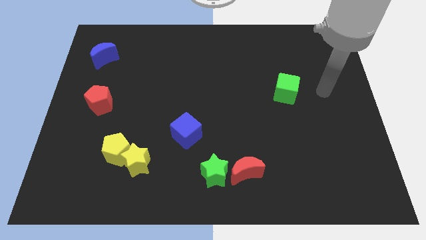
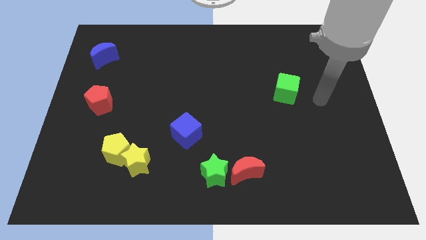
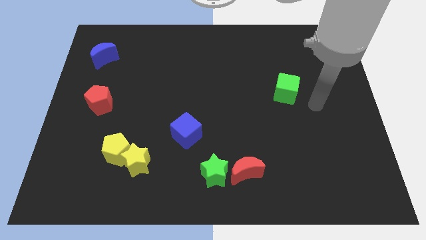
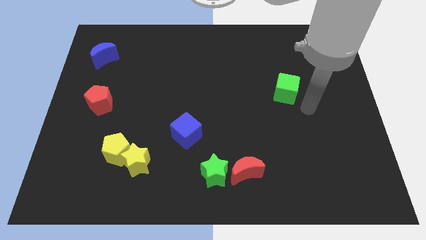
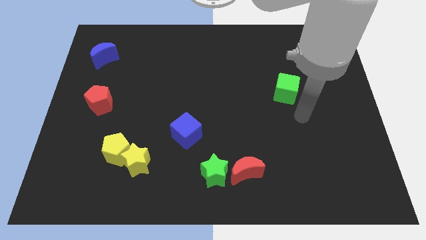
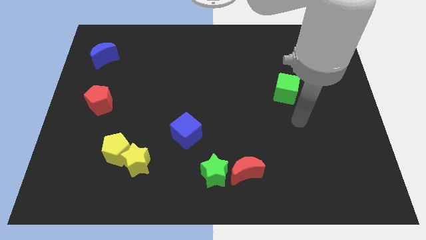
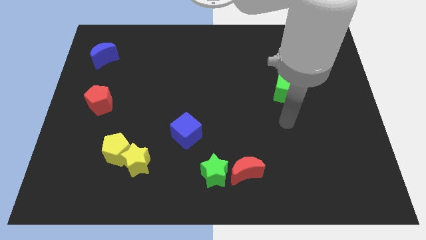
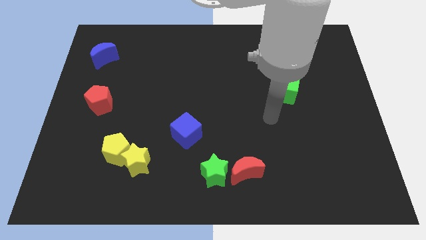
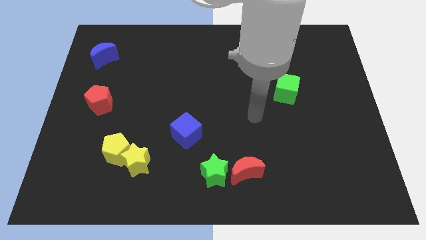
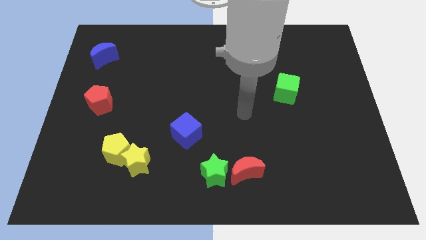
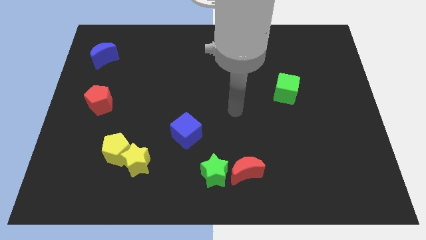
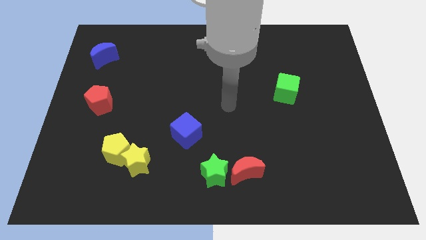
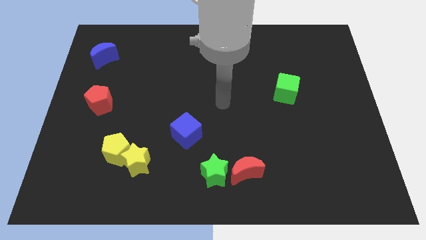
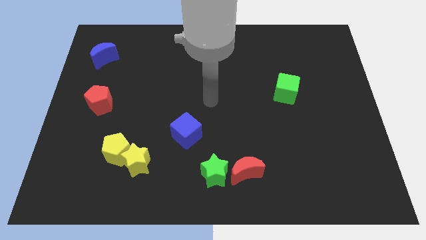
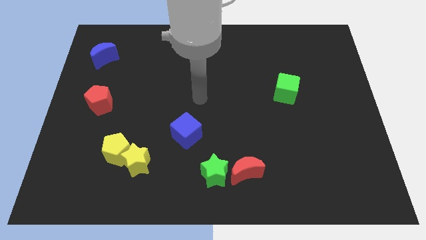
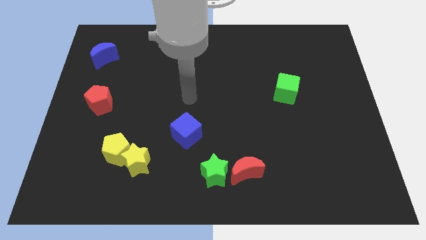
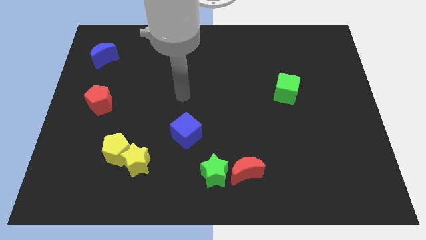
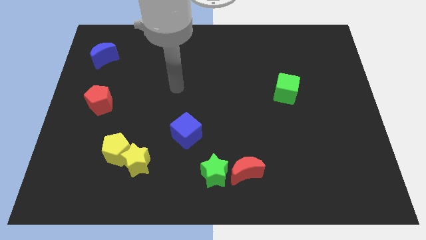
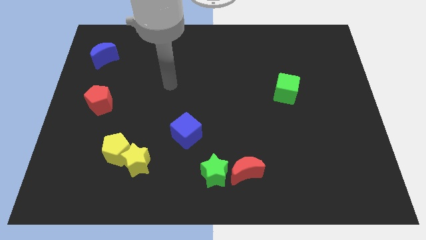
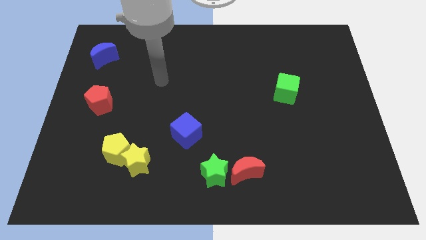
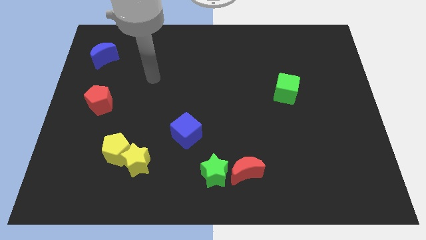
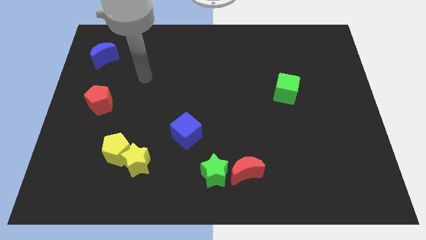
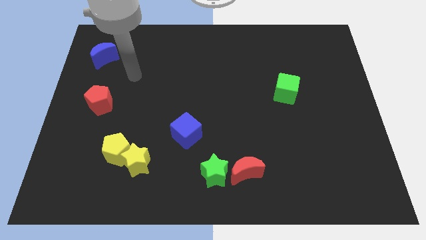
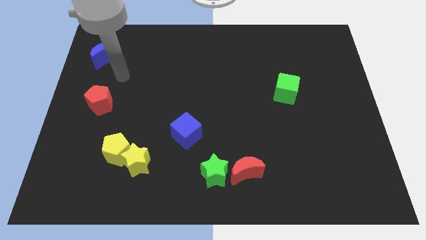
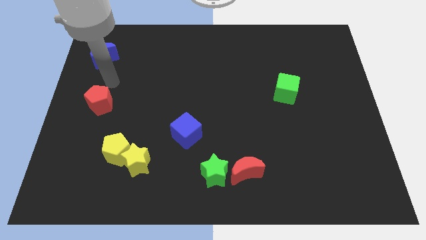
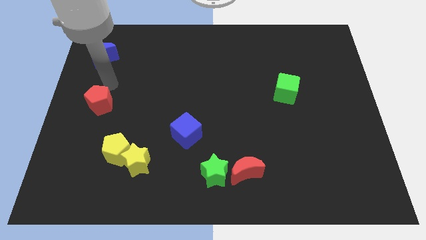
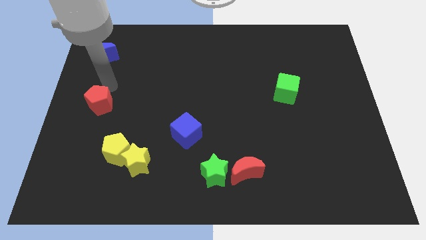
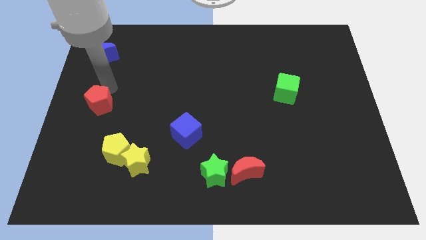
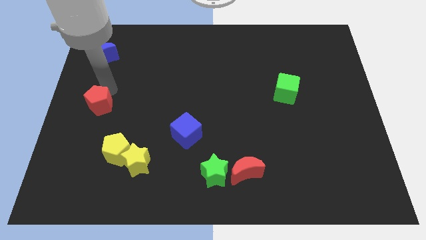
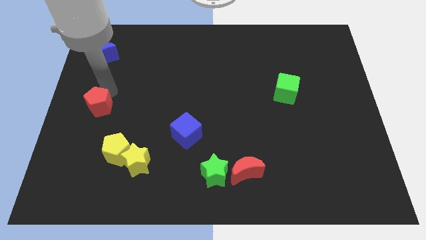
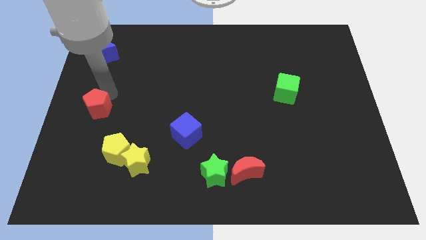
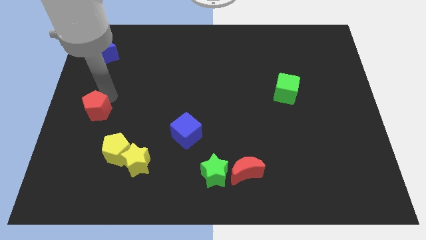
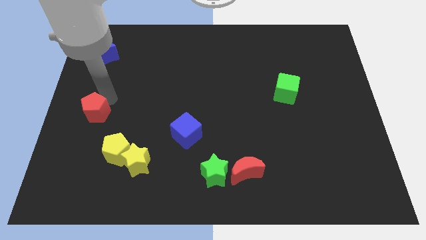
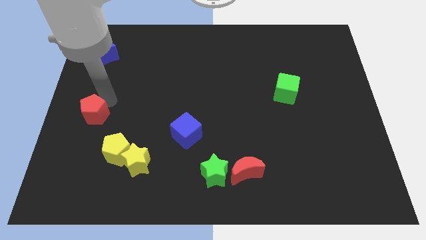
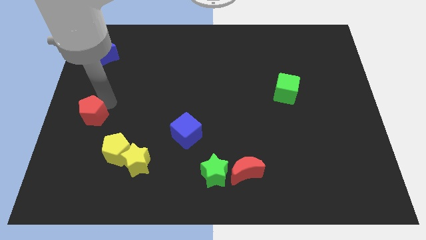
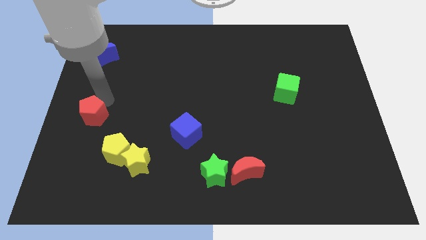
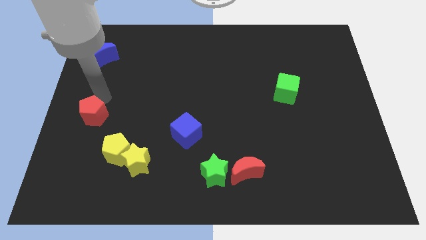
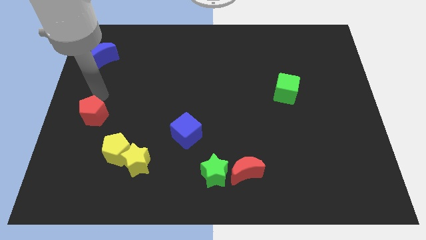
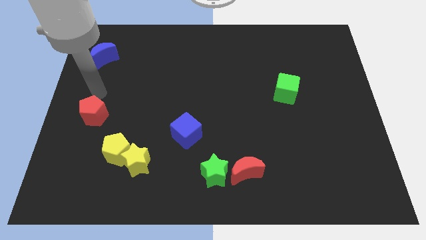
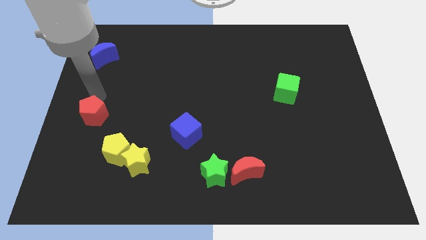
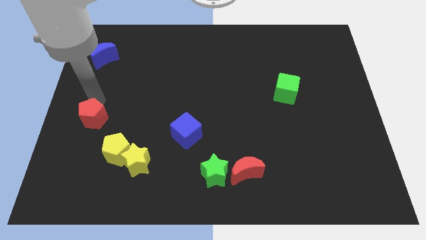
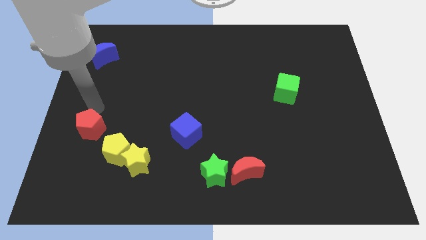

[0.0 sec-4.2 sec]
move the red pentagon down somewhat

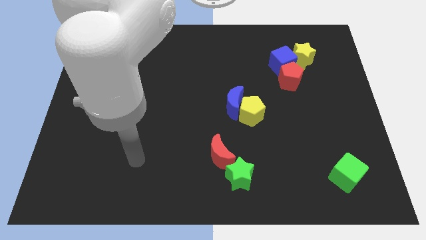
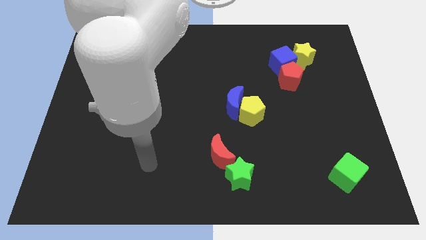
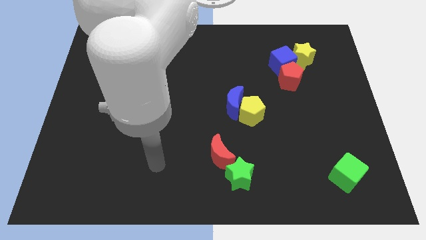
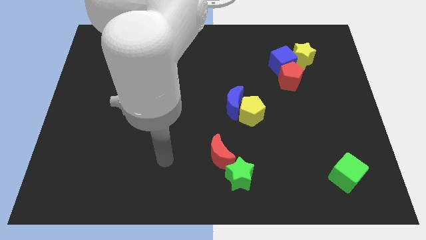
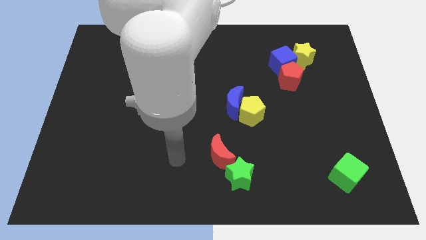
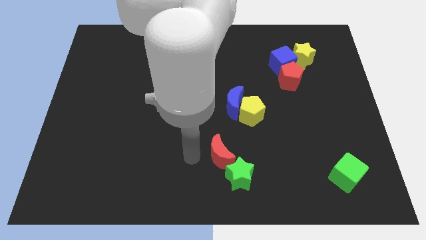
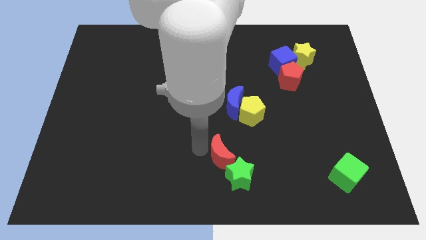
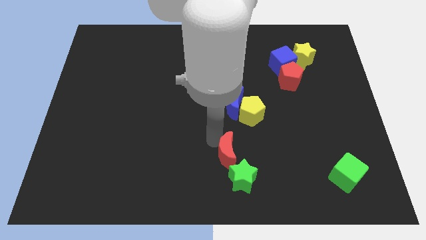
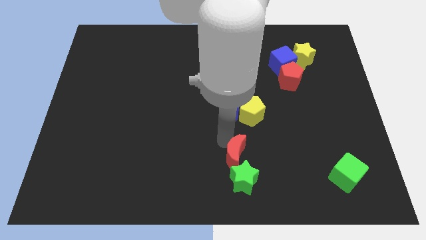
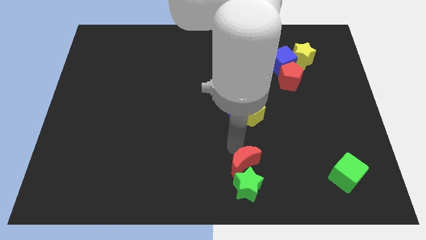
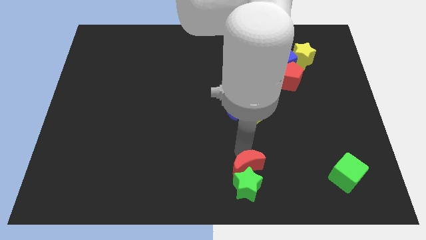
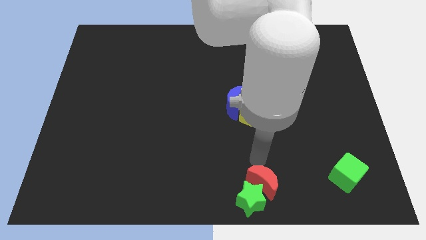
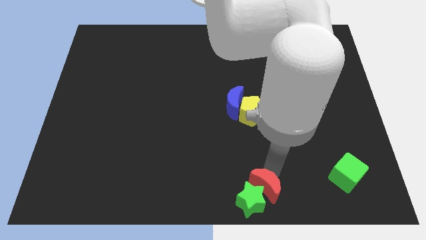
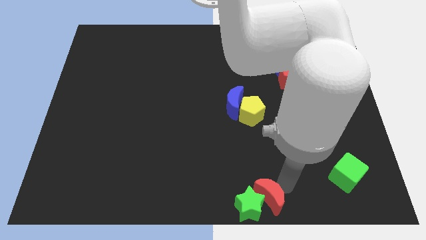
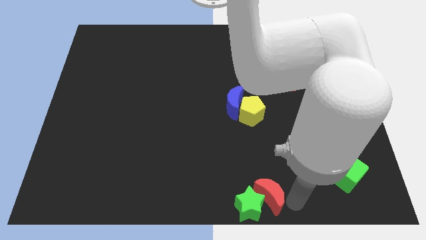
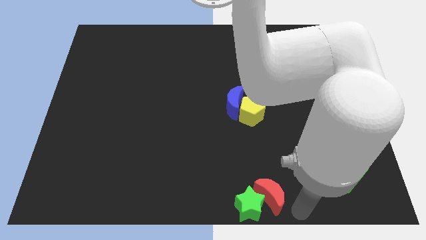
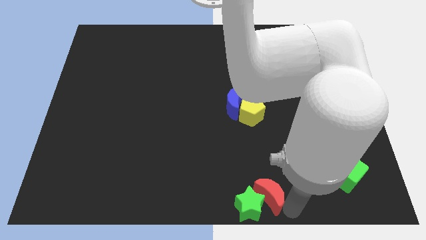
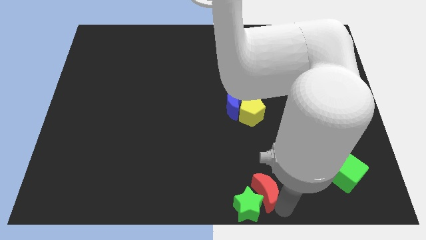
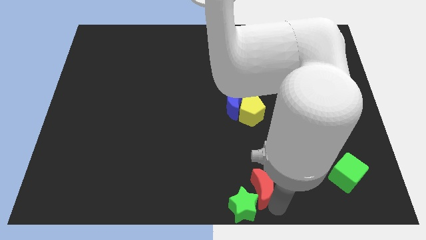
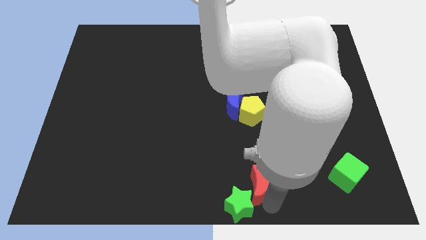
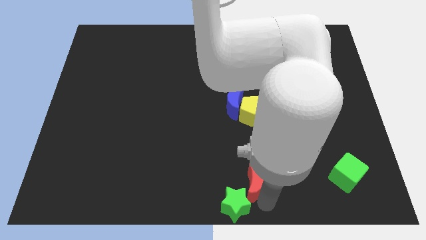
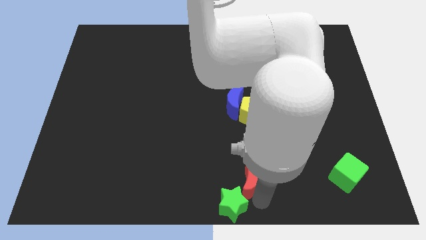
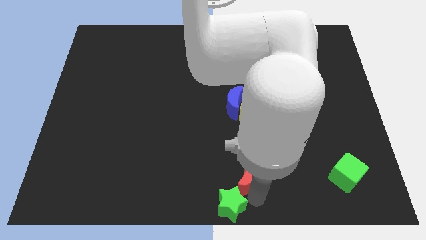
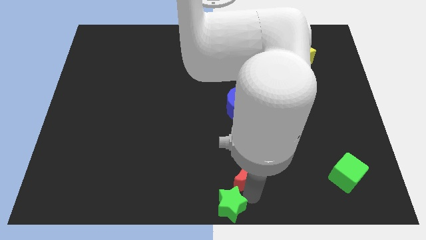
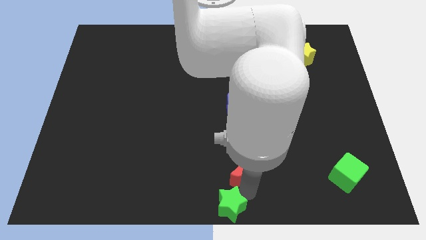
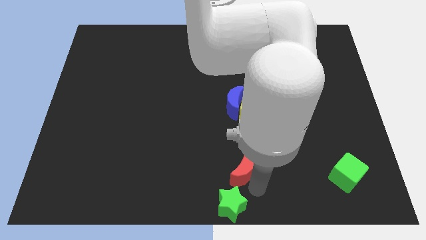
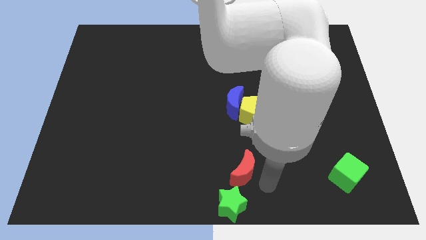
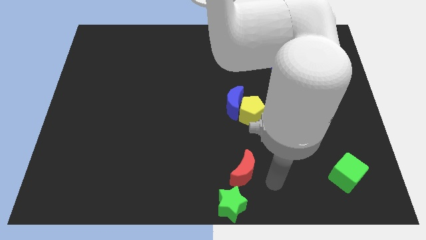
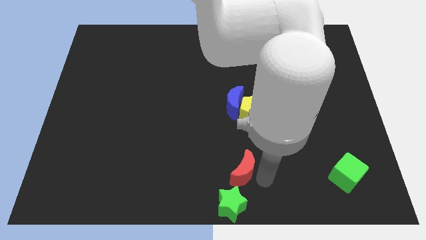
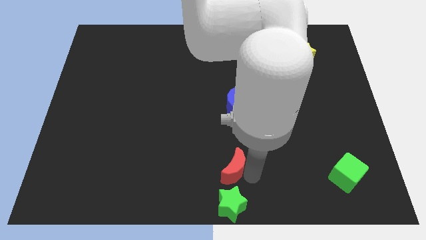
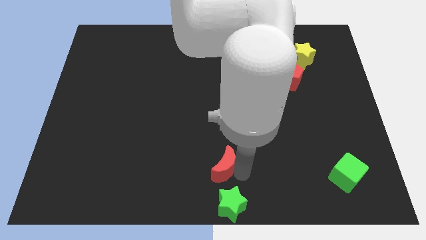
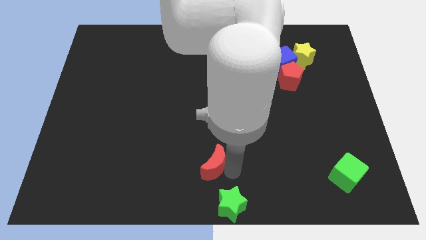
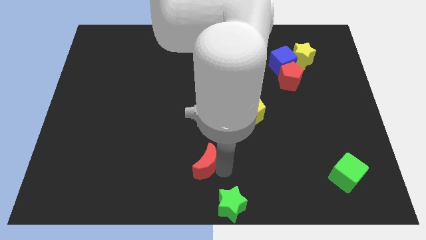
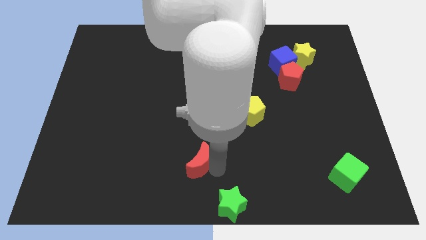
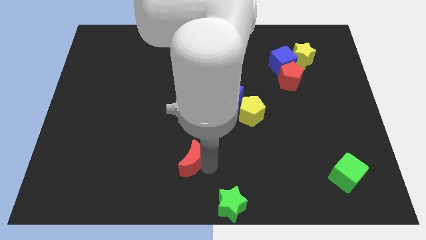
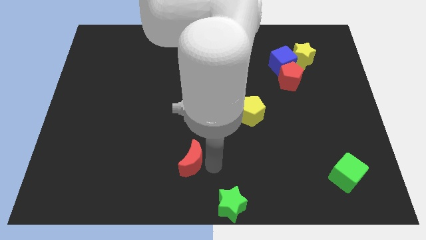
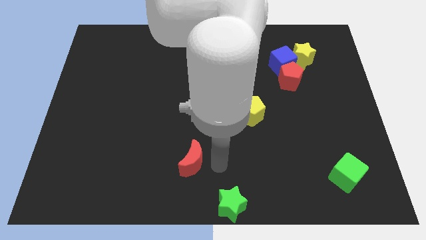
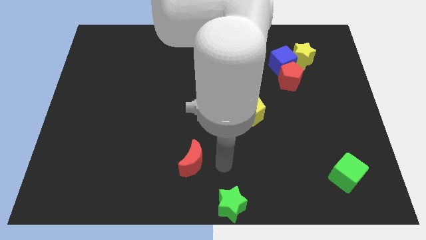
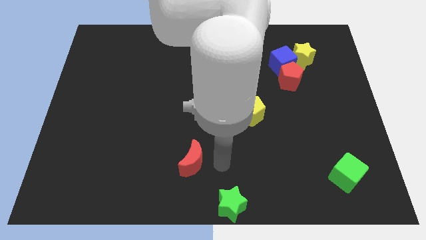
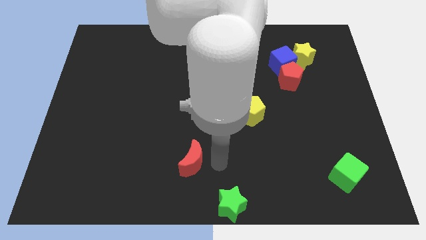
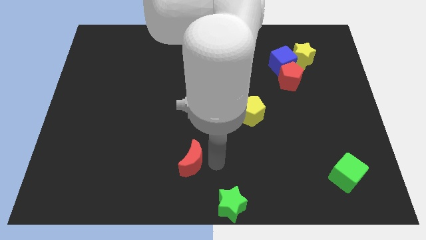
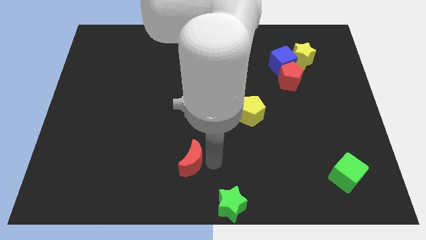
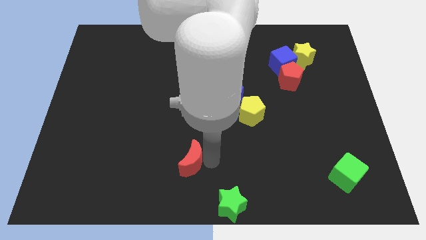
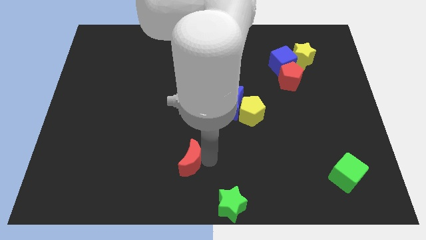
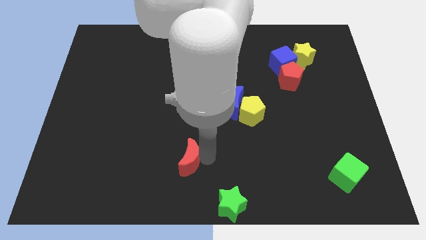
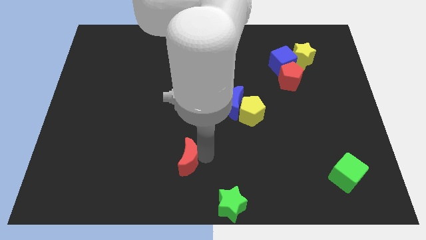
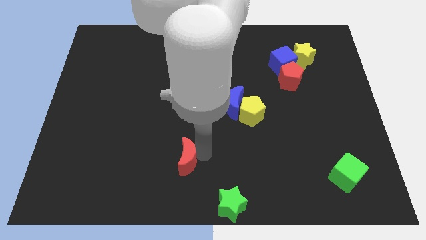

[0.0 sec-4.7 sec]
slide the red moon left a bit
